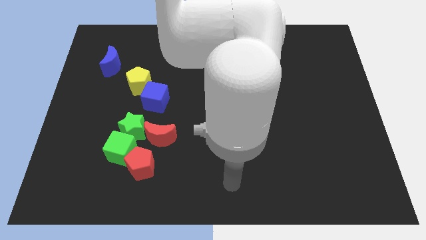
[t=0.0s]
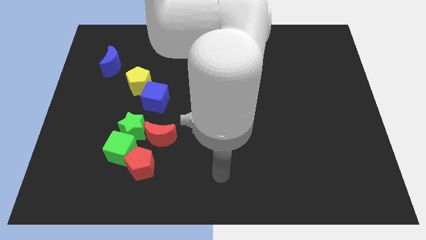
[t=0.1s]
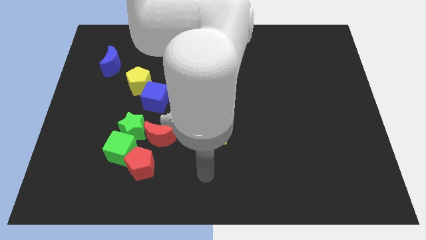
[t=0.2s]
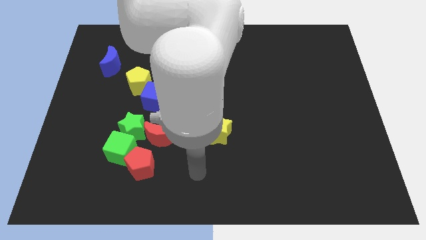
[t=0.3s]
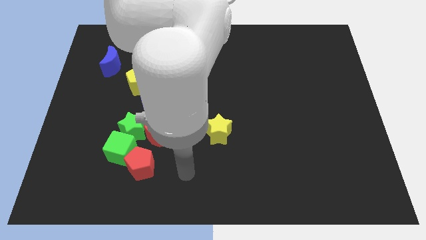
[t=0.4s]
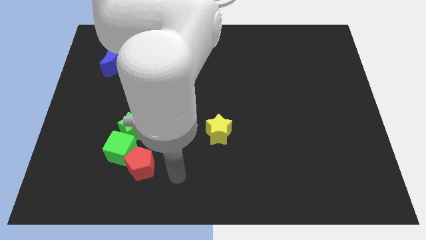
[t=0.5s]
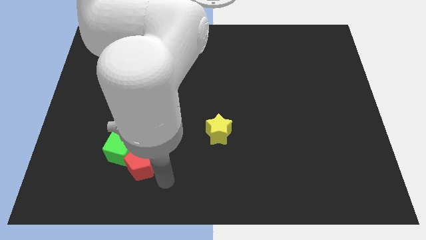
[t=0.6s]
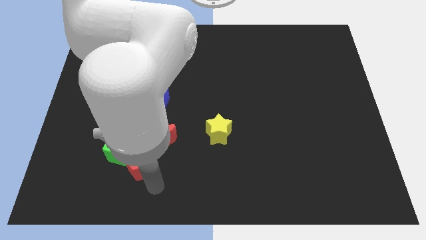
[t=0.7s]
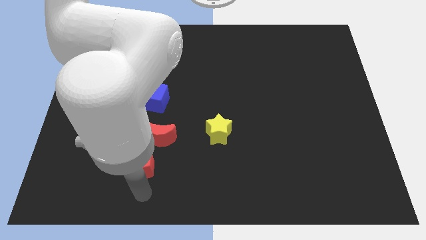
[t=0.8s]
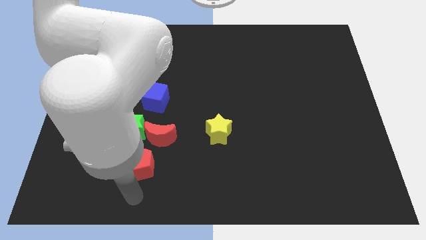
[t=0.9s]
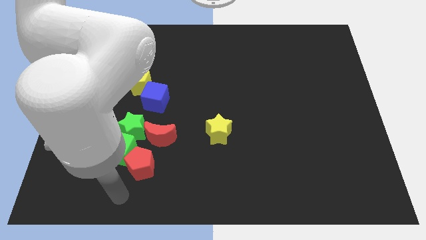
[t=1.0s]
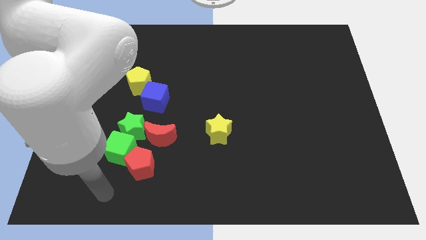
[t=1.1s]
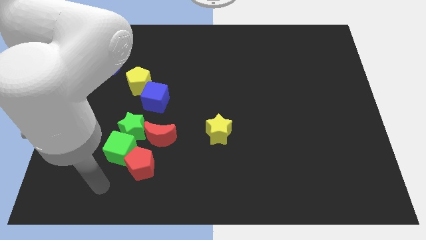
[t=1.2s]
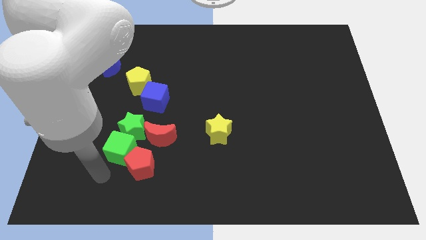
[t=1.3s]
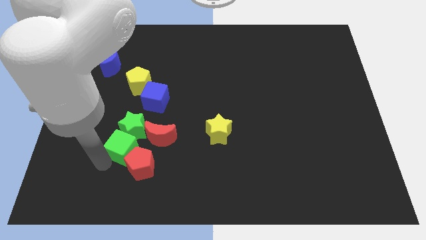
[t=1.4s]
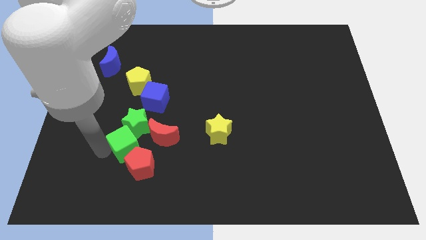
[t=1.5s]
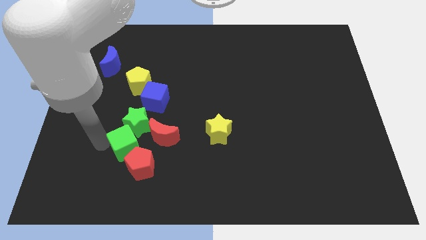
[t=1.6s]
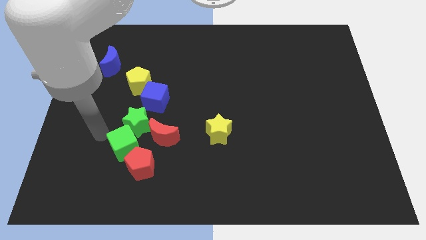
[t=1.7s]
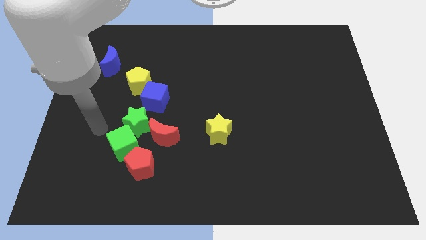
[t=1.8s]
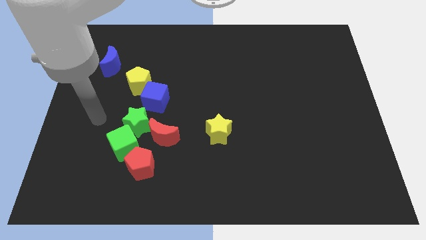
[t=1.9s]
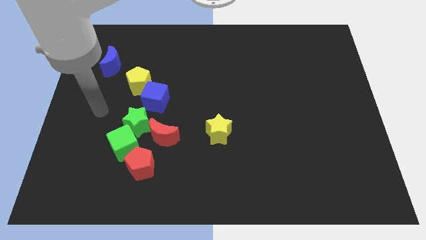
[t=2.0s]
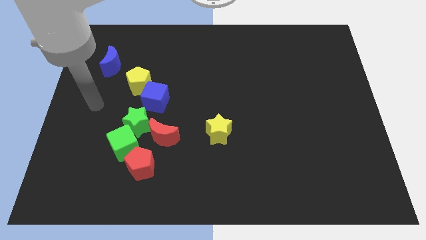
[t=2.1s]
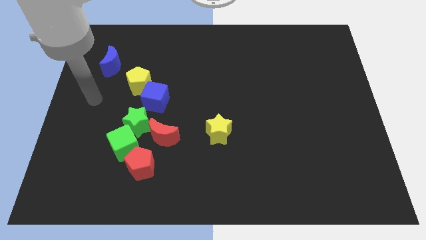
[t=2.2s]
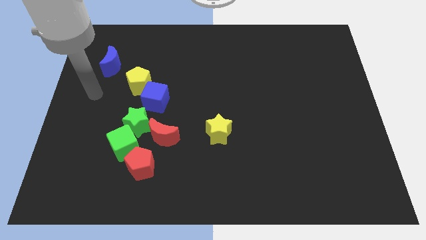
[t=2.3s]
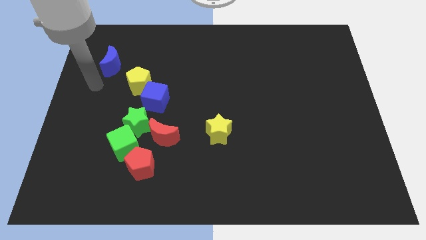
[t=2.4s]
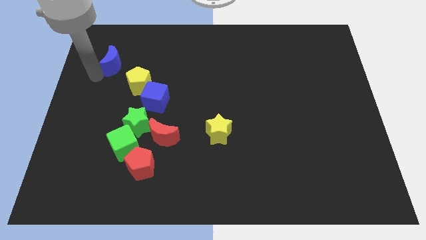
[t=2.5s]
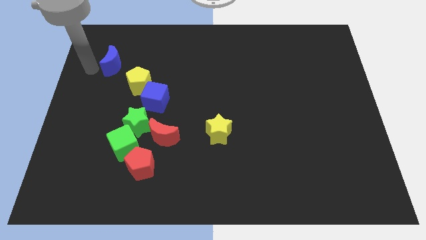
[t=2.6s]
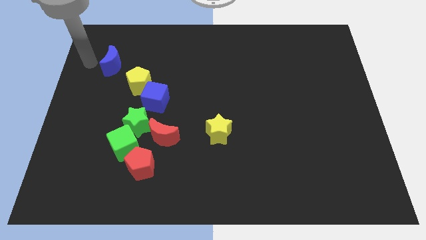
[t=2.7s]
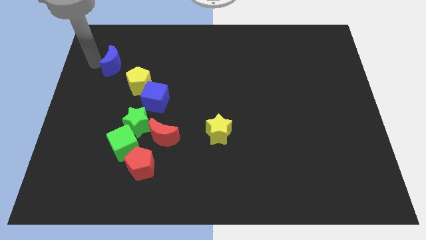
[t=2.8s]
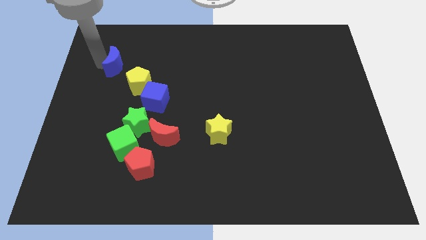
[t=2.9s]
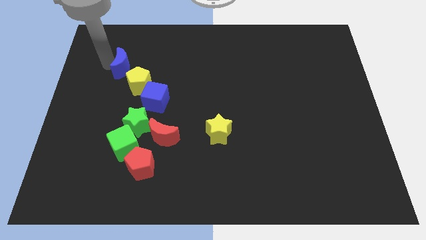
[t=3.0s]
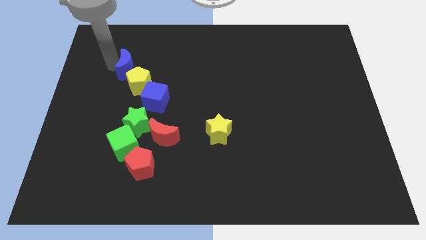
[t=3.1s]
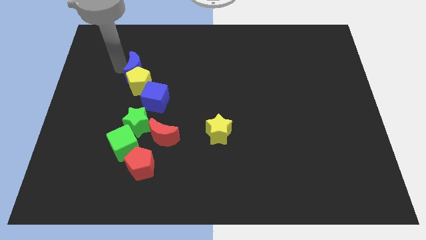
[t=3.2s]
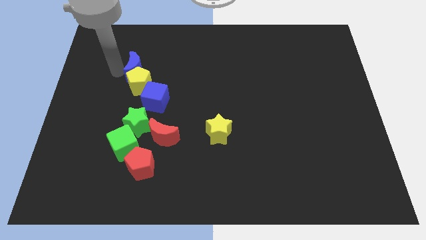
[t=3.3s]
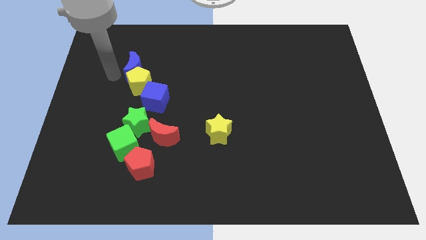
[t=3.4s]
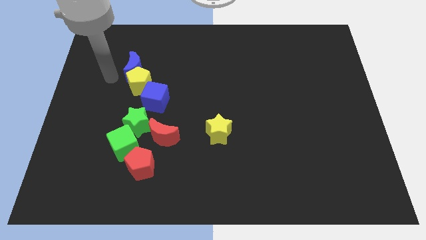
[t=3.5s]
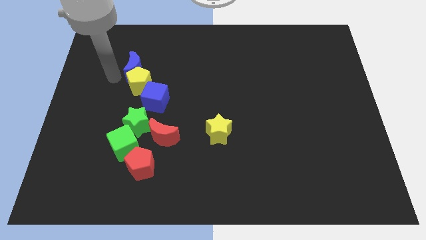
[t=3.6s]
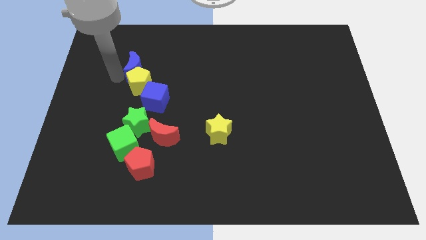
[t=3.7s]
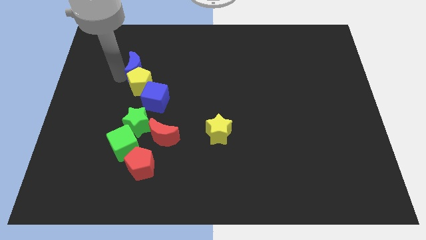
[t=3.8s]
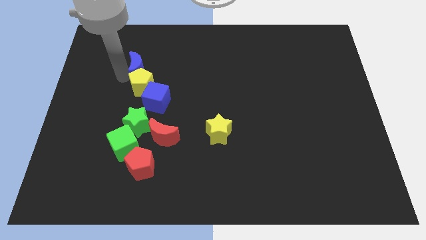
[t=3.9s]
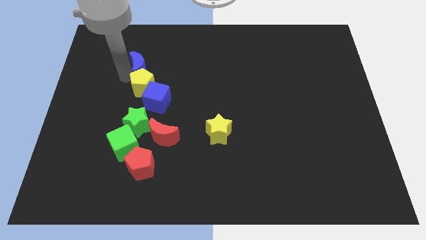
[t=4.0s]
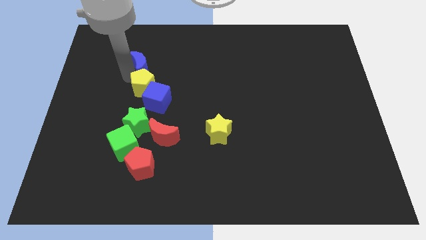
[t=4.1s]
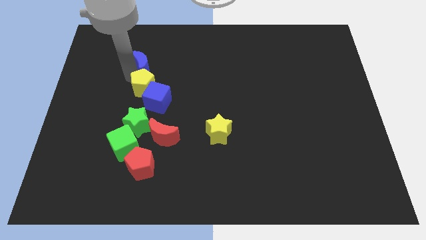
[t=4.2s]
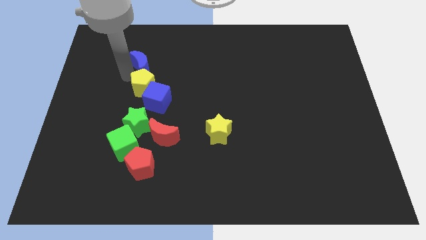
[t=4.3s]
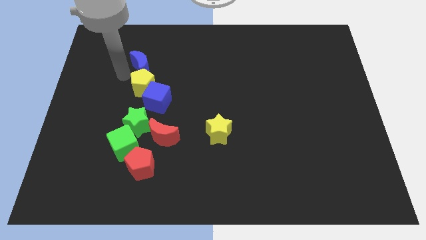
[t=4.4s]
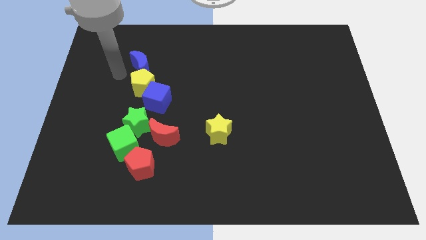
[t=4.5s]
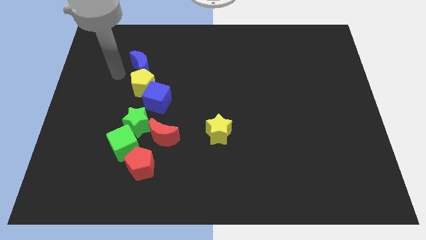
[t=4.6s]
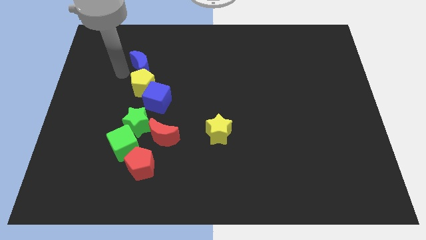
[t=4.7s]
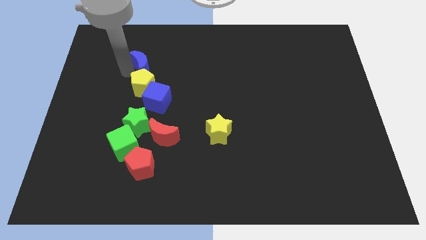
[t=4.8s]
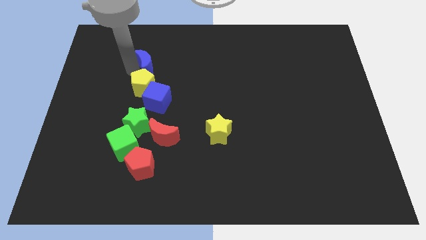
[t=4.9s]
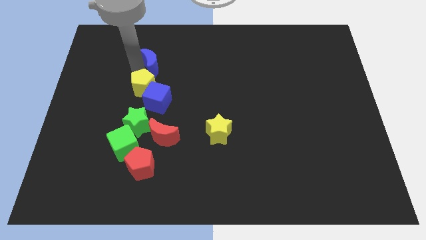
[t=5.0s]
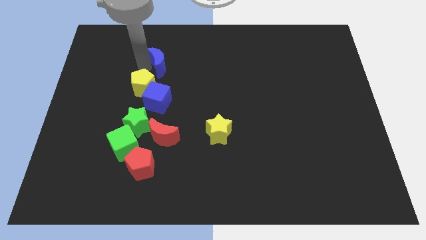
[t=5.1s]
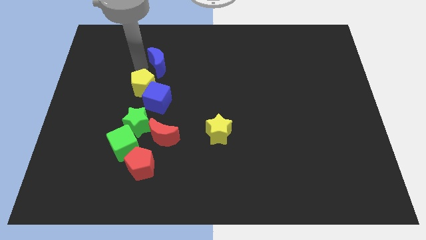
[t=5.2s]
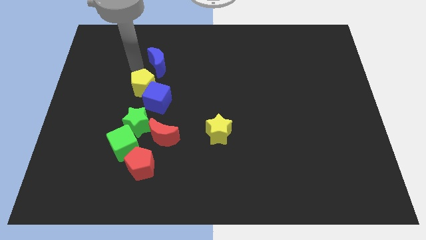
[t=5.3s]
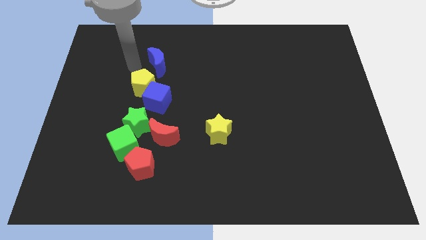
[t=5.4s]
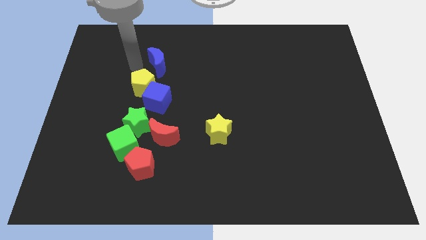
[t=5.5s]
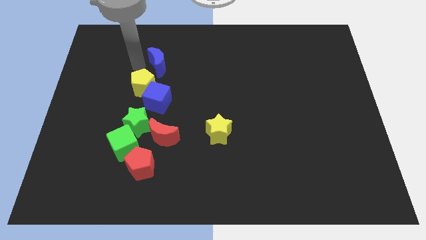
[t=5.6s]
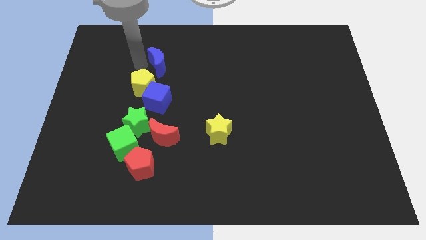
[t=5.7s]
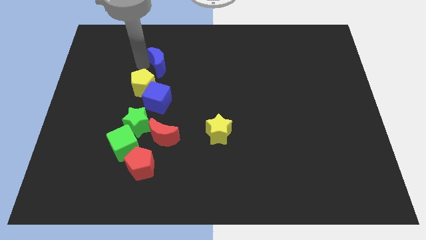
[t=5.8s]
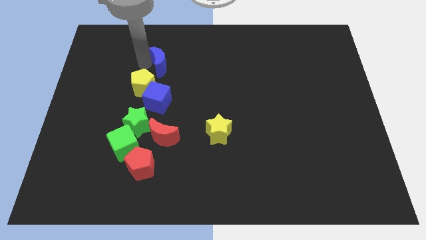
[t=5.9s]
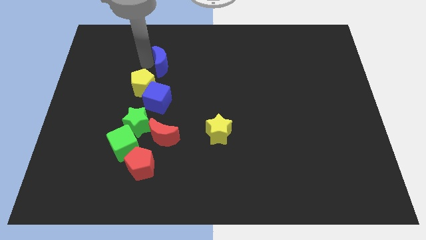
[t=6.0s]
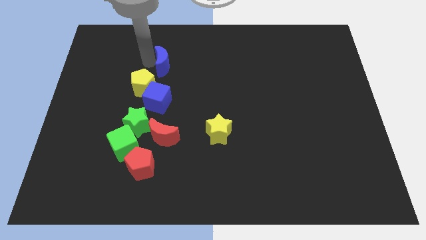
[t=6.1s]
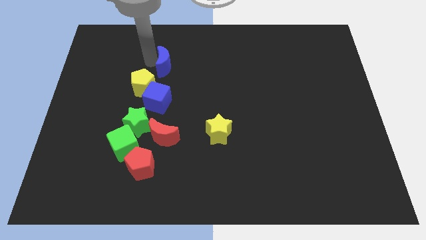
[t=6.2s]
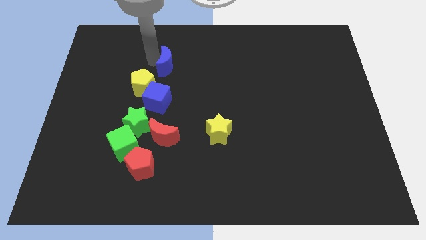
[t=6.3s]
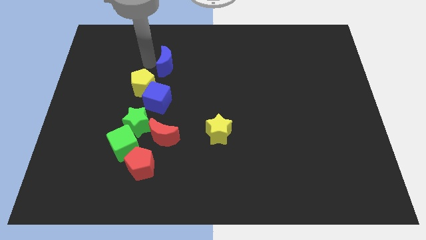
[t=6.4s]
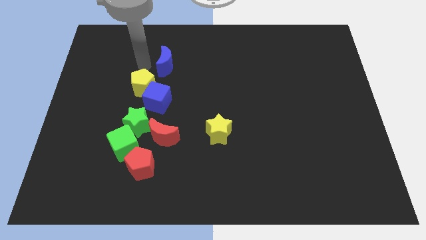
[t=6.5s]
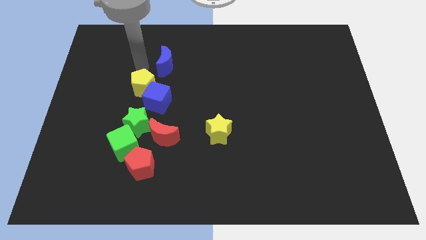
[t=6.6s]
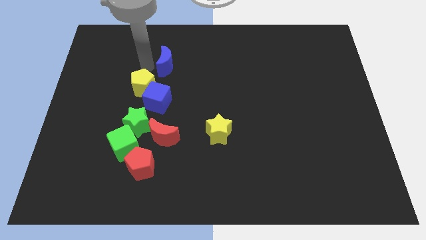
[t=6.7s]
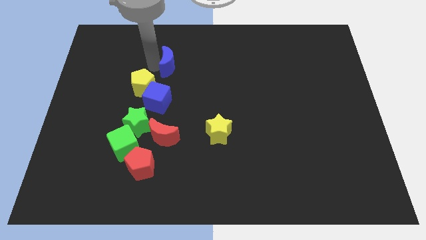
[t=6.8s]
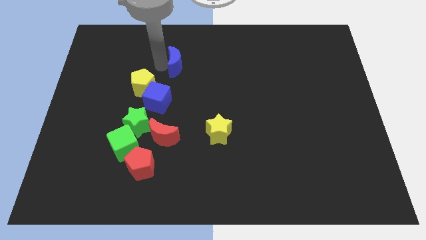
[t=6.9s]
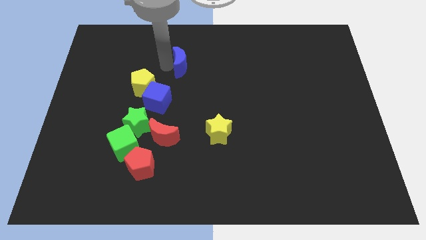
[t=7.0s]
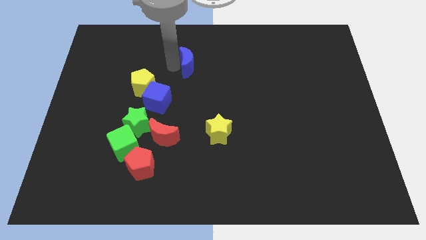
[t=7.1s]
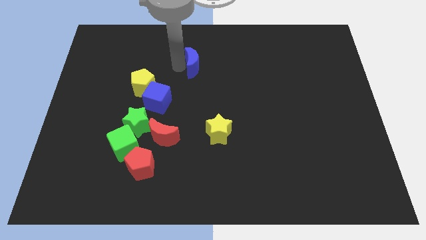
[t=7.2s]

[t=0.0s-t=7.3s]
move the blue moon right

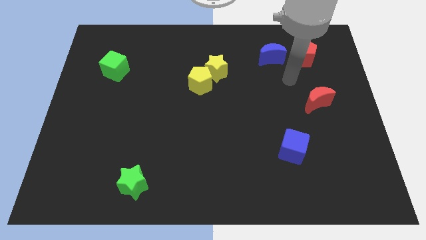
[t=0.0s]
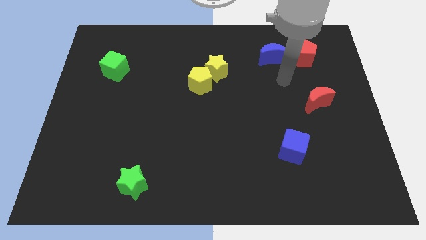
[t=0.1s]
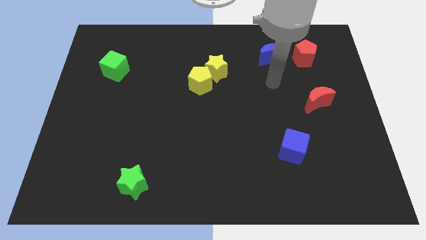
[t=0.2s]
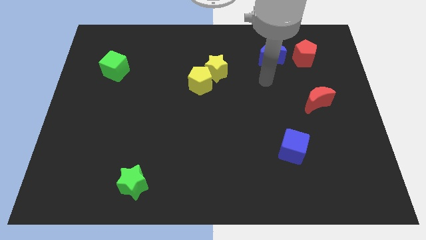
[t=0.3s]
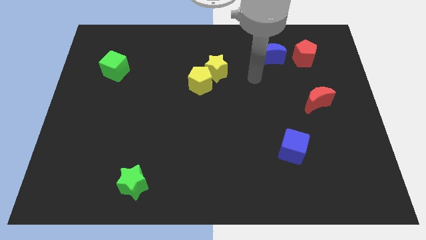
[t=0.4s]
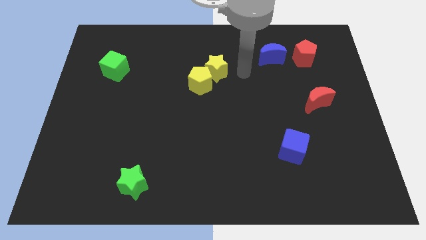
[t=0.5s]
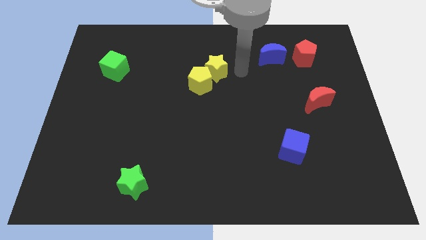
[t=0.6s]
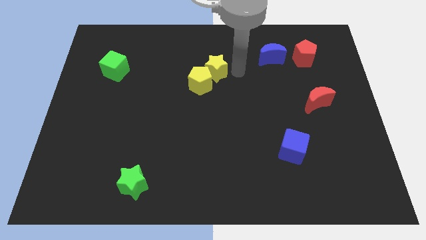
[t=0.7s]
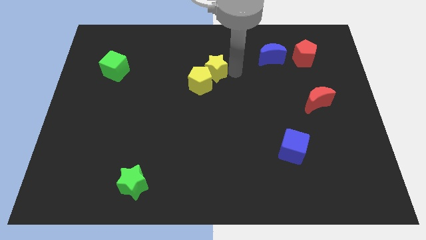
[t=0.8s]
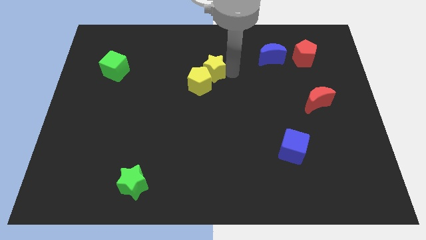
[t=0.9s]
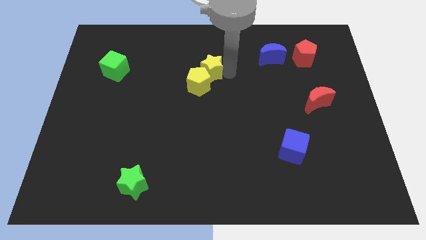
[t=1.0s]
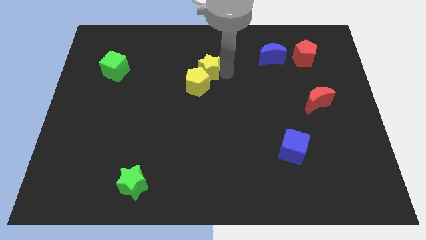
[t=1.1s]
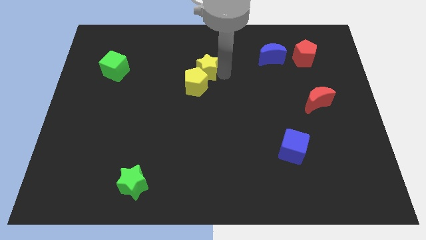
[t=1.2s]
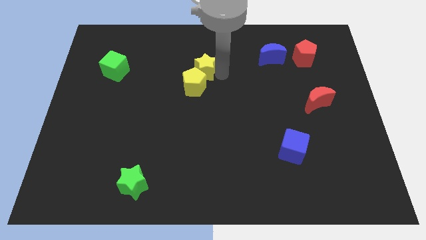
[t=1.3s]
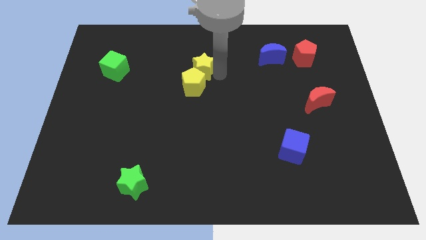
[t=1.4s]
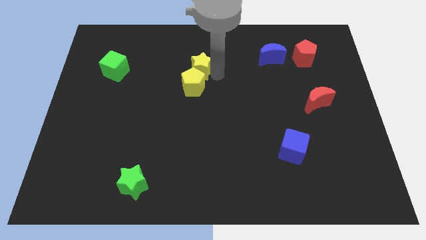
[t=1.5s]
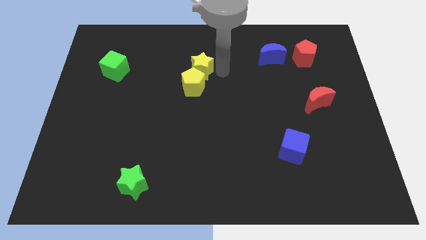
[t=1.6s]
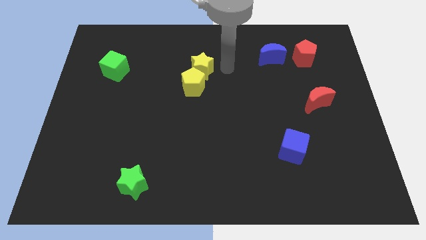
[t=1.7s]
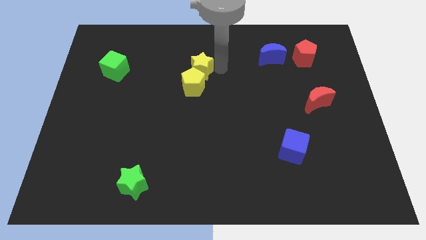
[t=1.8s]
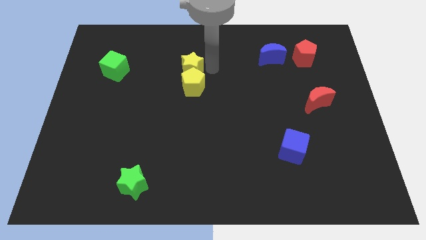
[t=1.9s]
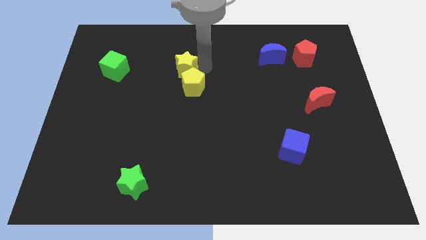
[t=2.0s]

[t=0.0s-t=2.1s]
slightly move the yellow star to the left
